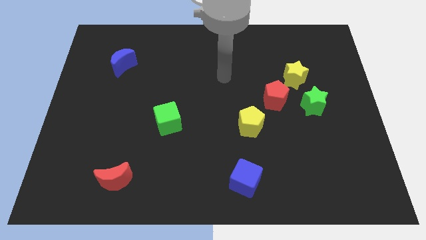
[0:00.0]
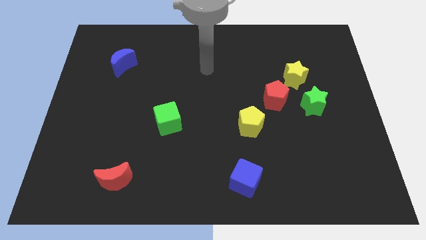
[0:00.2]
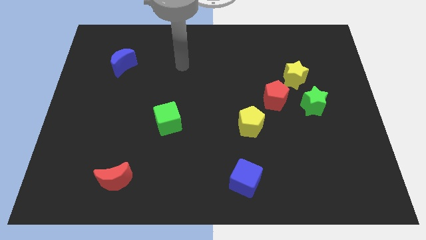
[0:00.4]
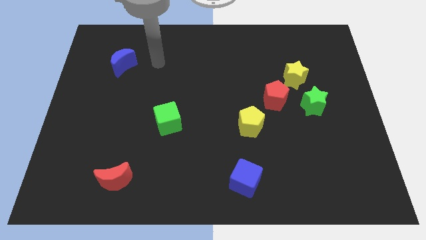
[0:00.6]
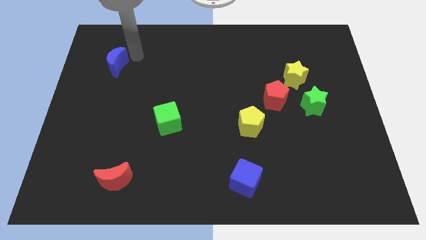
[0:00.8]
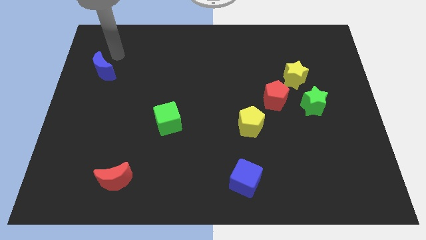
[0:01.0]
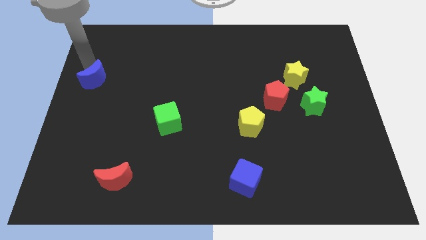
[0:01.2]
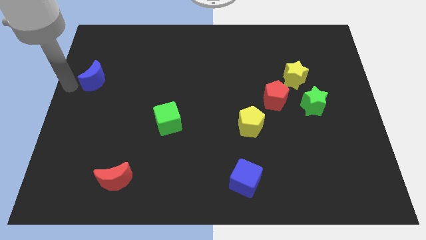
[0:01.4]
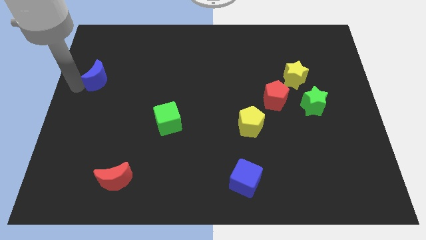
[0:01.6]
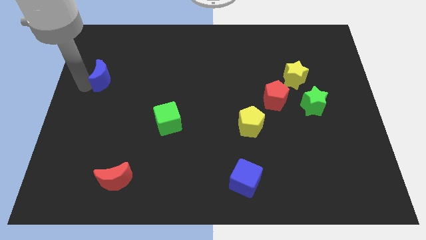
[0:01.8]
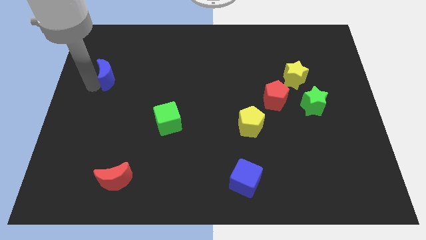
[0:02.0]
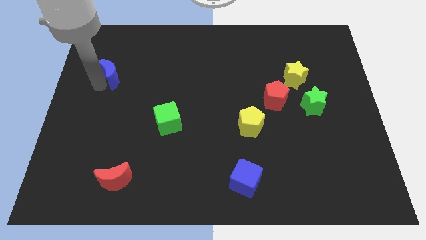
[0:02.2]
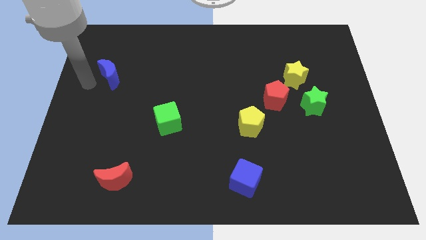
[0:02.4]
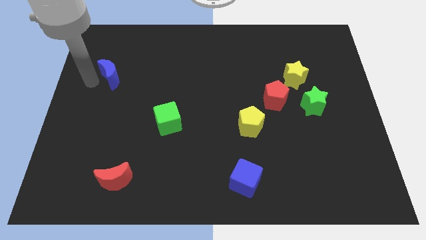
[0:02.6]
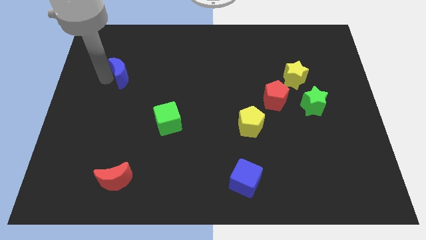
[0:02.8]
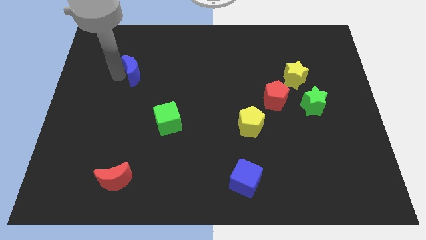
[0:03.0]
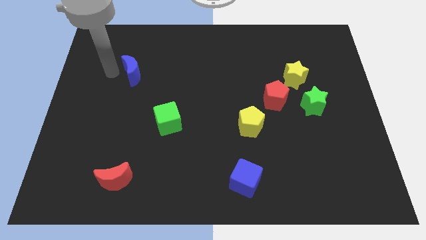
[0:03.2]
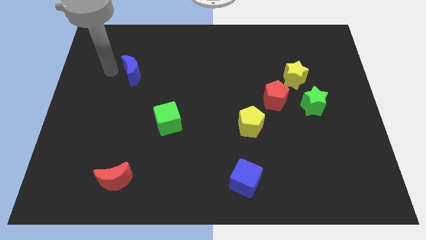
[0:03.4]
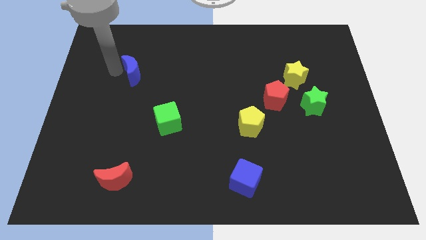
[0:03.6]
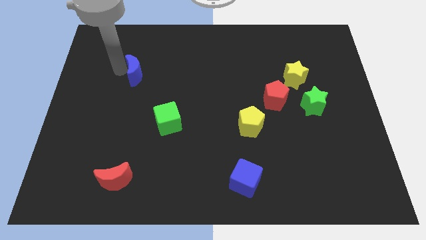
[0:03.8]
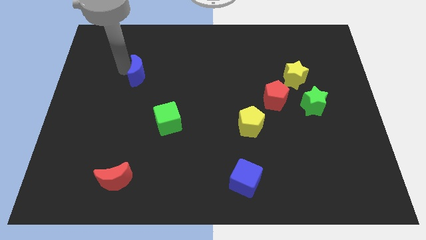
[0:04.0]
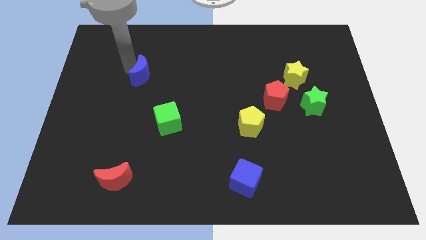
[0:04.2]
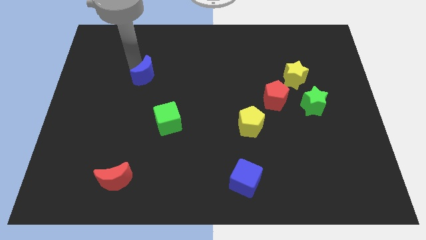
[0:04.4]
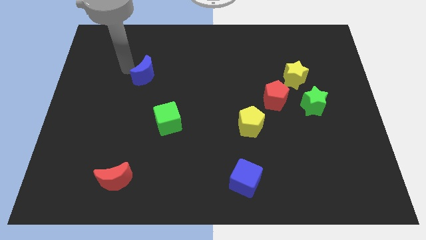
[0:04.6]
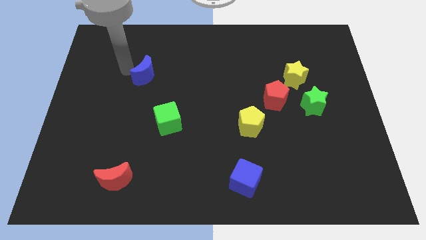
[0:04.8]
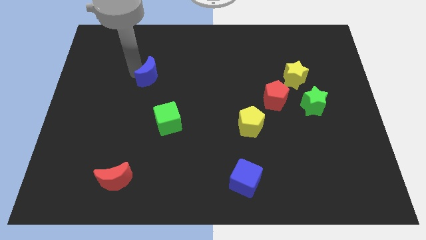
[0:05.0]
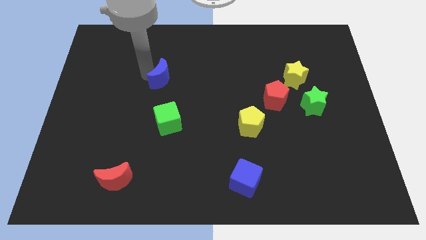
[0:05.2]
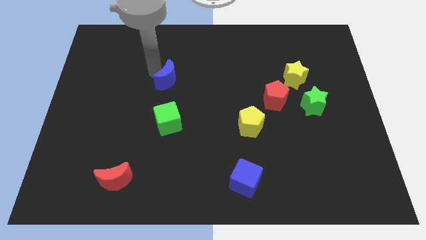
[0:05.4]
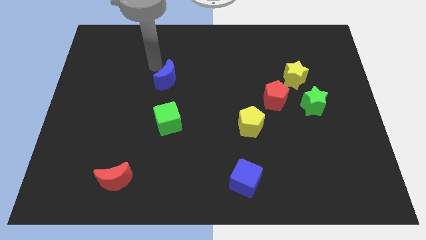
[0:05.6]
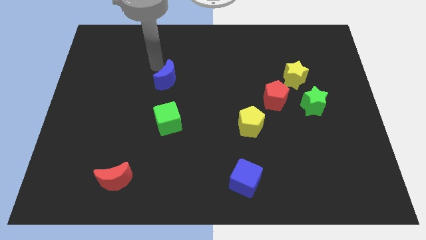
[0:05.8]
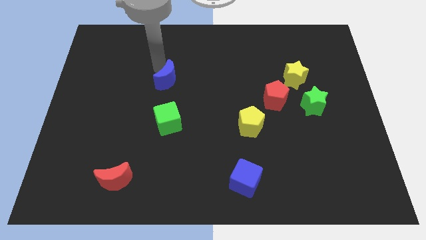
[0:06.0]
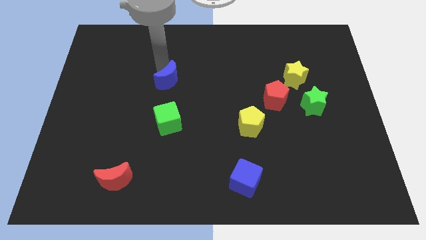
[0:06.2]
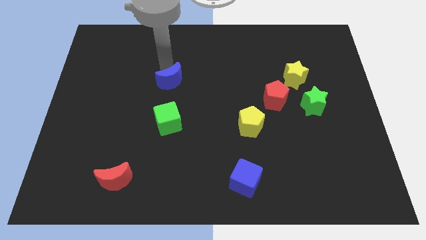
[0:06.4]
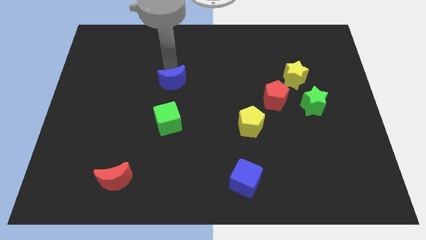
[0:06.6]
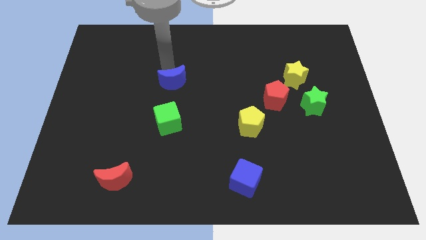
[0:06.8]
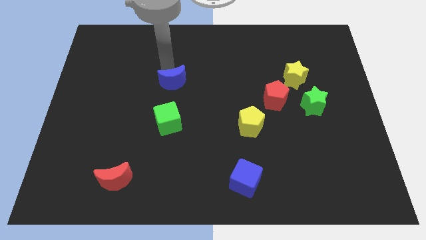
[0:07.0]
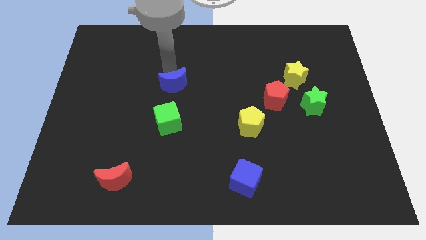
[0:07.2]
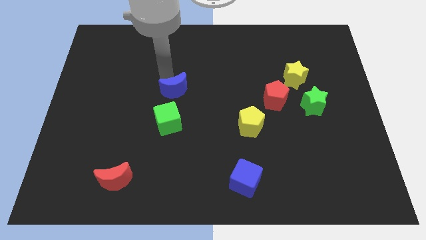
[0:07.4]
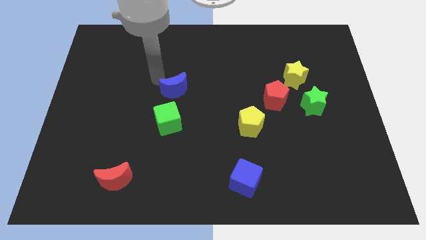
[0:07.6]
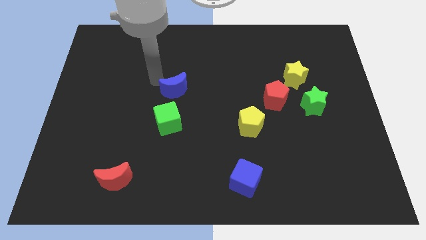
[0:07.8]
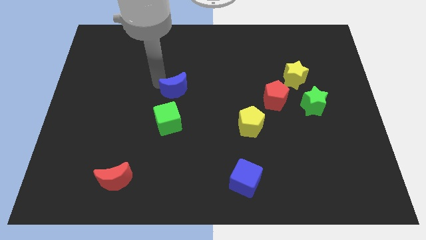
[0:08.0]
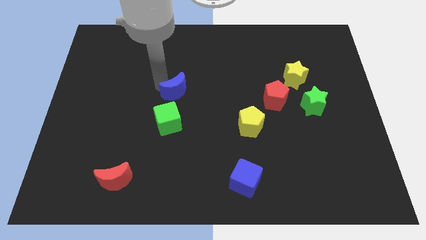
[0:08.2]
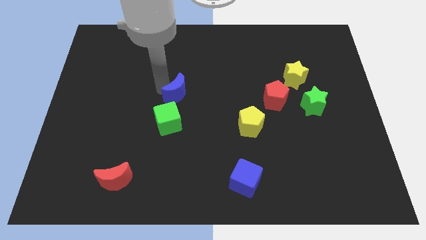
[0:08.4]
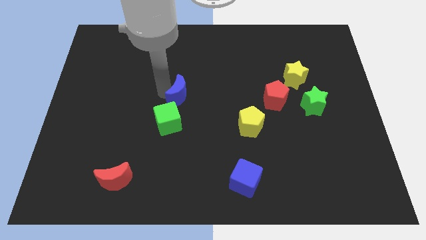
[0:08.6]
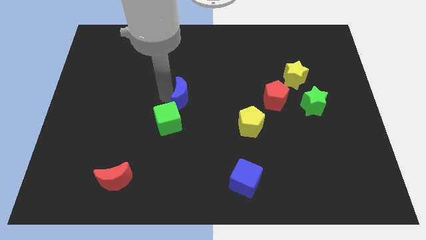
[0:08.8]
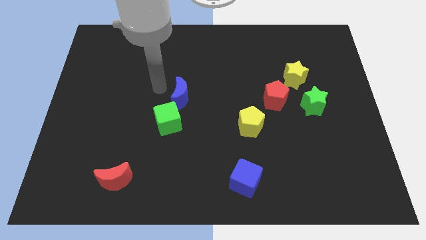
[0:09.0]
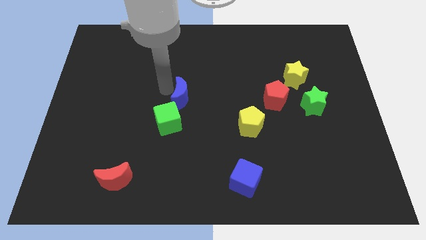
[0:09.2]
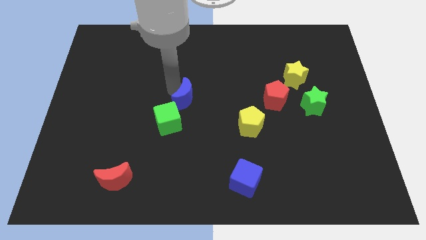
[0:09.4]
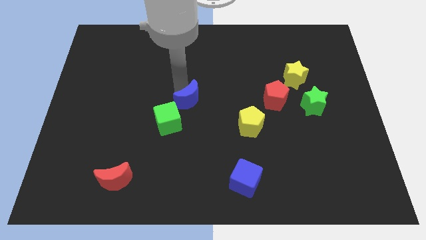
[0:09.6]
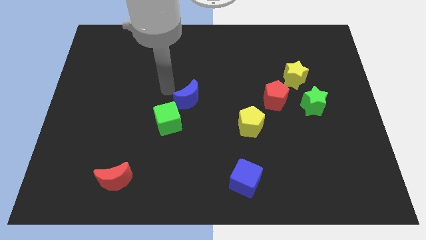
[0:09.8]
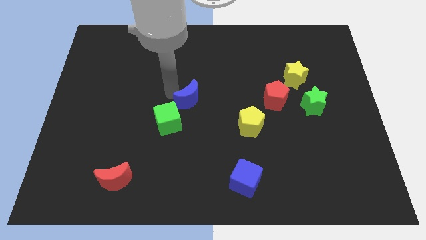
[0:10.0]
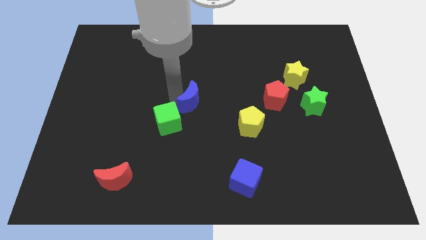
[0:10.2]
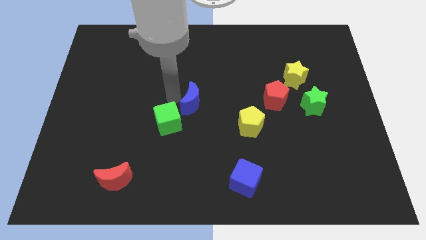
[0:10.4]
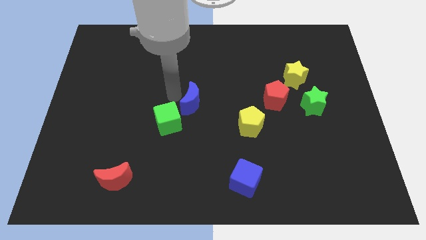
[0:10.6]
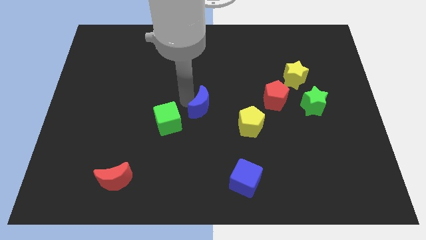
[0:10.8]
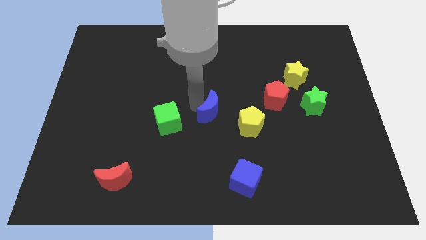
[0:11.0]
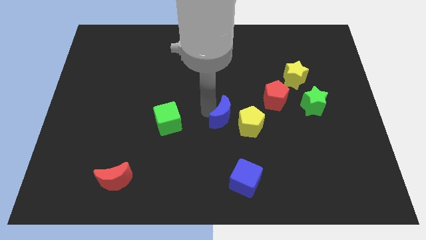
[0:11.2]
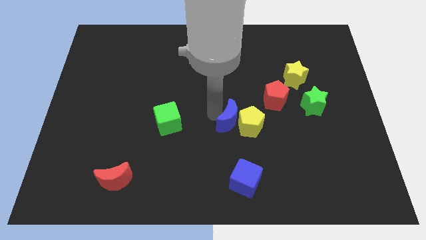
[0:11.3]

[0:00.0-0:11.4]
push the blue moon to the yellow pentagon

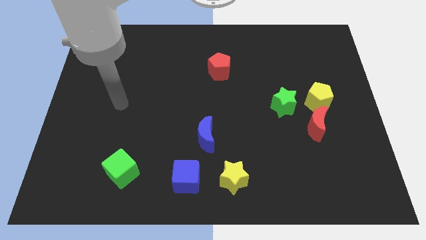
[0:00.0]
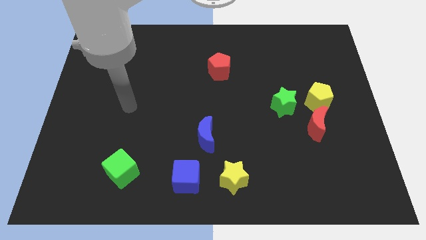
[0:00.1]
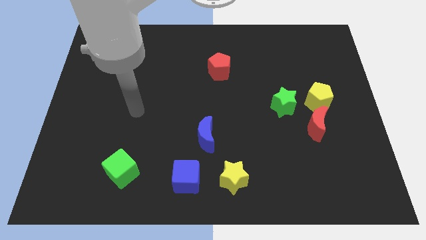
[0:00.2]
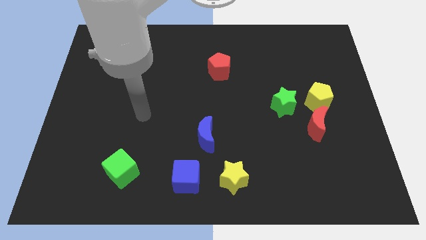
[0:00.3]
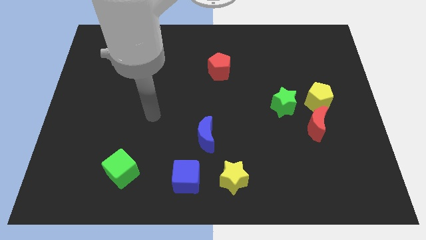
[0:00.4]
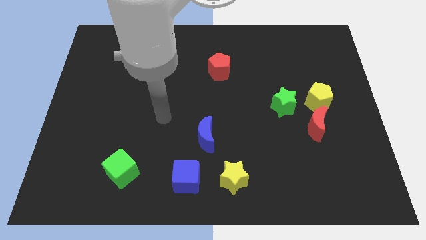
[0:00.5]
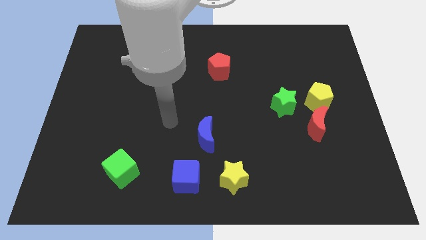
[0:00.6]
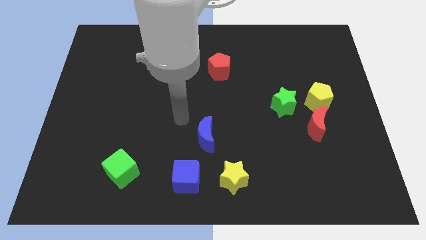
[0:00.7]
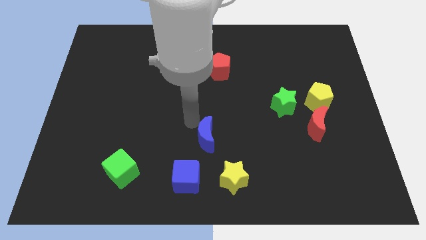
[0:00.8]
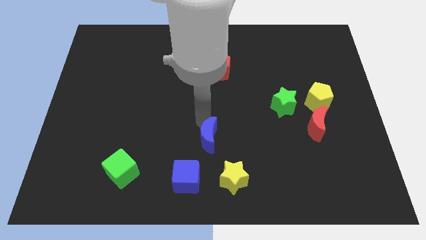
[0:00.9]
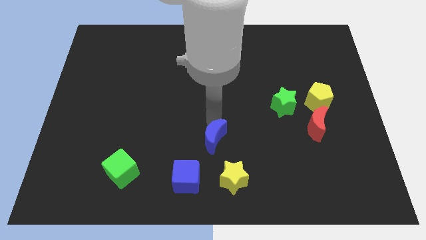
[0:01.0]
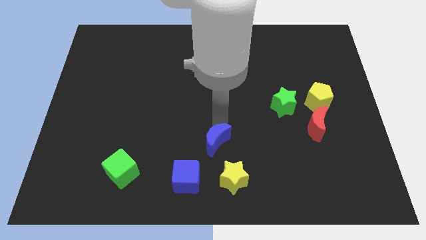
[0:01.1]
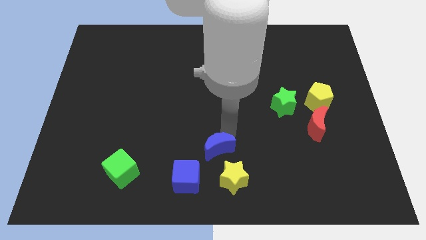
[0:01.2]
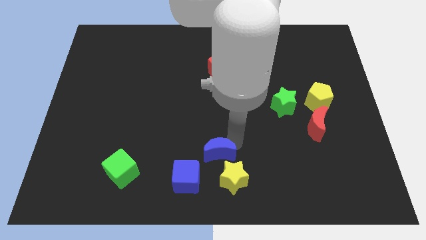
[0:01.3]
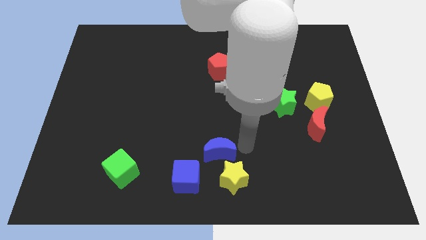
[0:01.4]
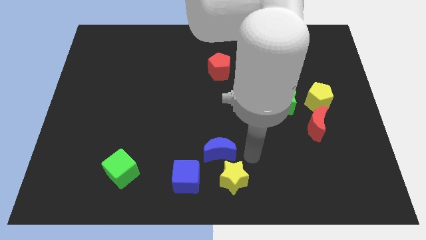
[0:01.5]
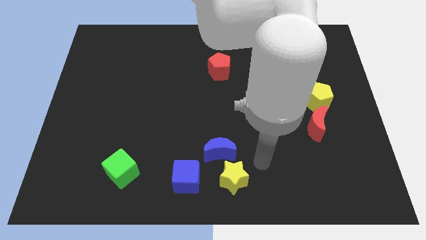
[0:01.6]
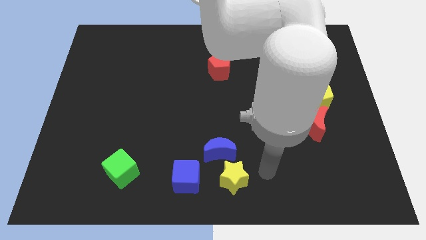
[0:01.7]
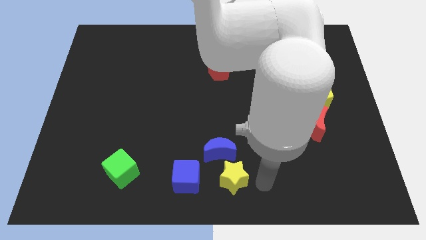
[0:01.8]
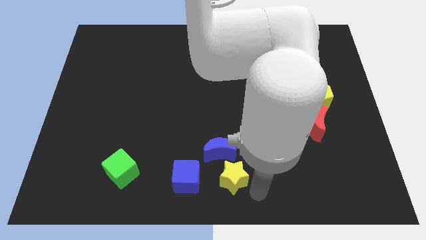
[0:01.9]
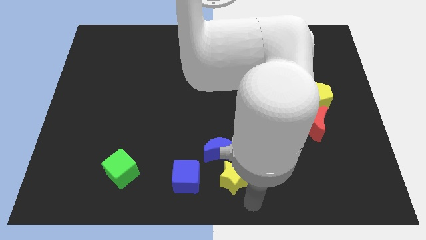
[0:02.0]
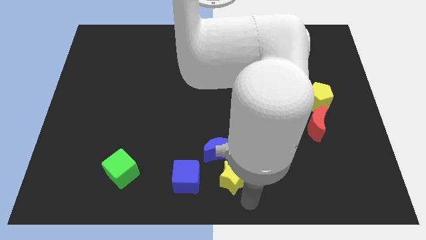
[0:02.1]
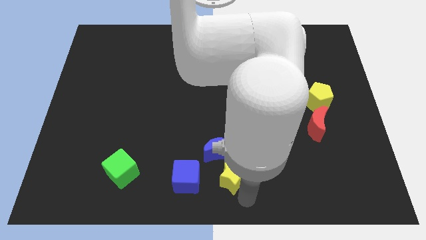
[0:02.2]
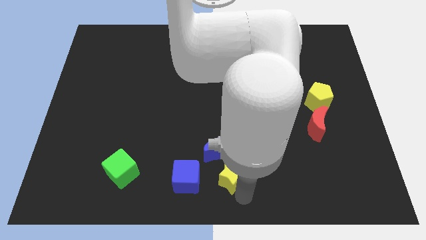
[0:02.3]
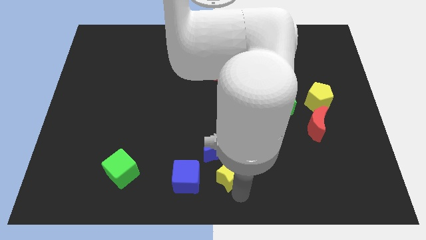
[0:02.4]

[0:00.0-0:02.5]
slide the yellow star close to the blue moon
